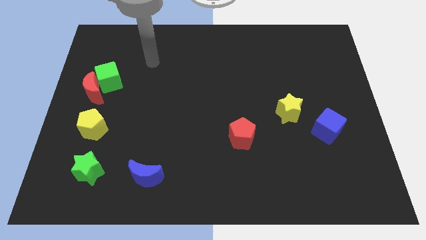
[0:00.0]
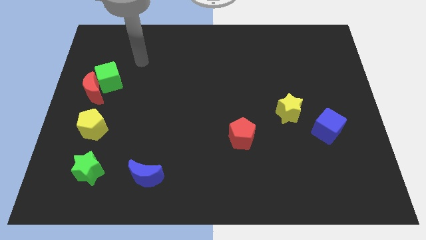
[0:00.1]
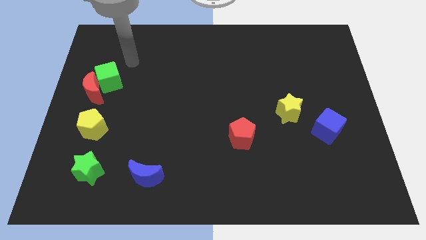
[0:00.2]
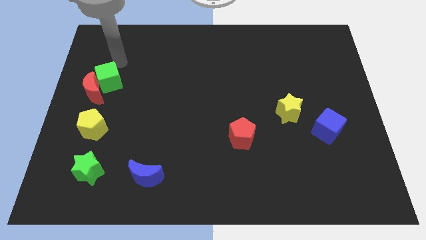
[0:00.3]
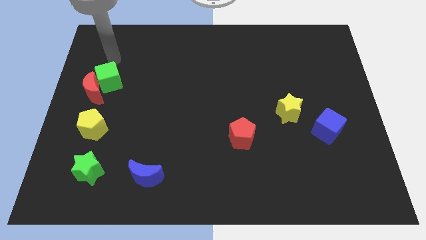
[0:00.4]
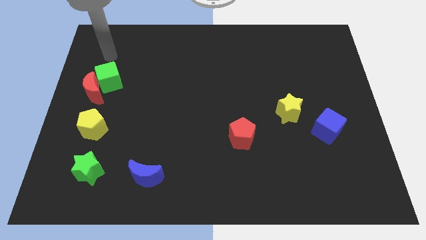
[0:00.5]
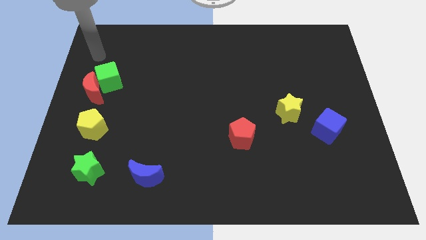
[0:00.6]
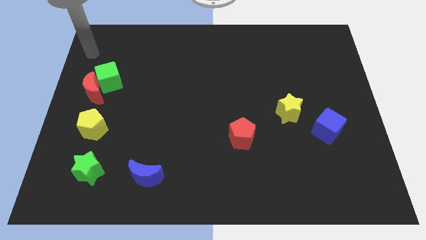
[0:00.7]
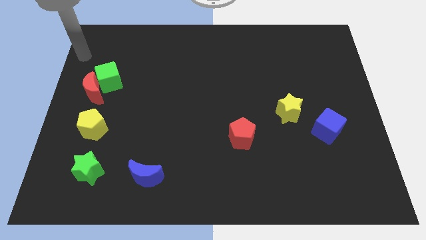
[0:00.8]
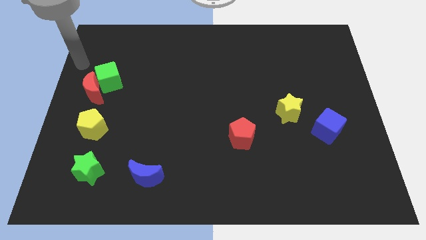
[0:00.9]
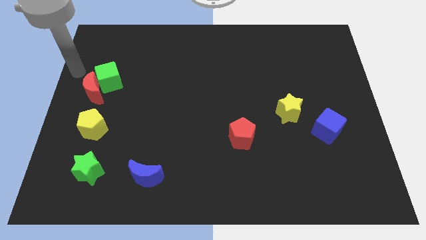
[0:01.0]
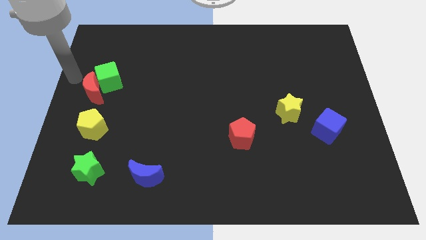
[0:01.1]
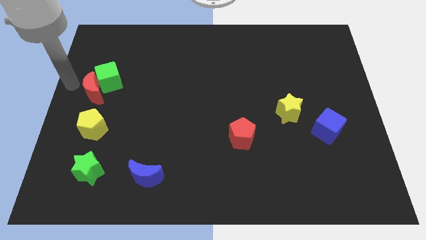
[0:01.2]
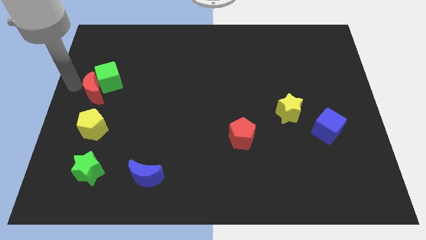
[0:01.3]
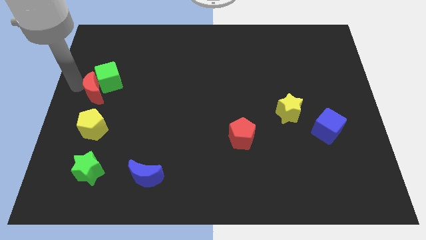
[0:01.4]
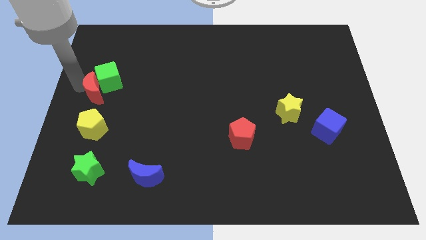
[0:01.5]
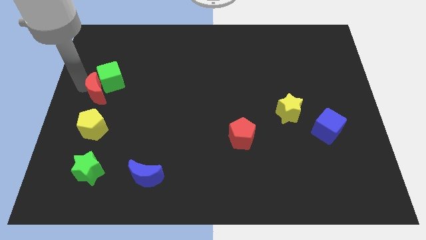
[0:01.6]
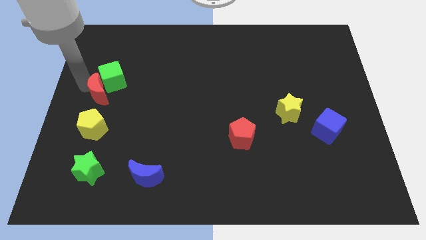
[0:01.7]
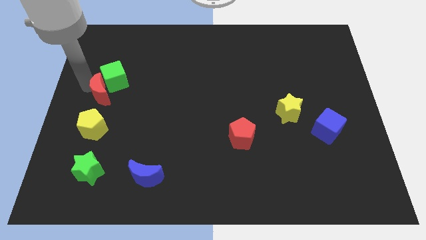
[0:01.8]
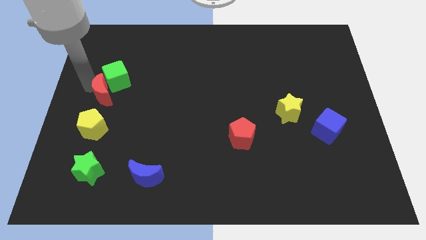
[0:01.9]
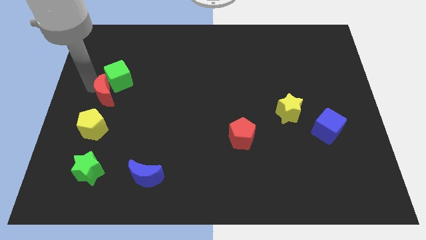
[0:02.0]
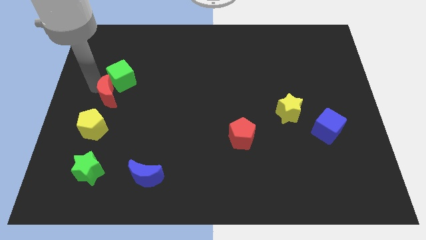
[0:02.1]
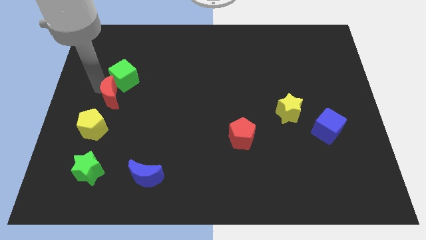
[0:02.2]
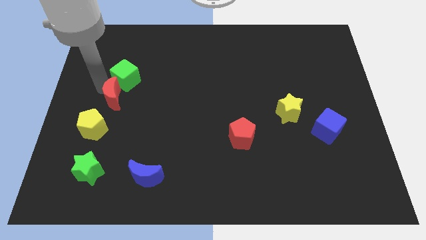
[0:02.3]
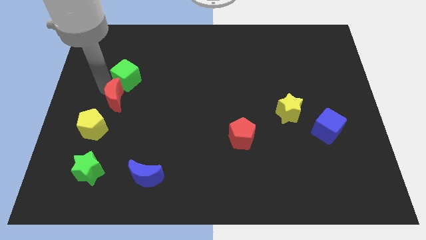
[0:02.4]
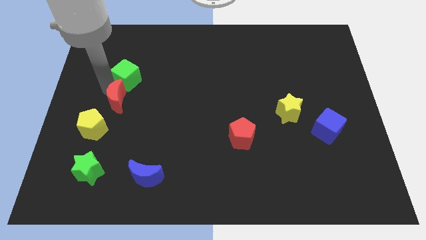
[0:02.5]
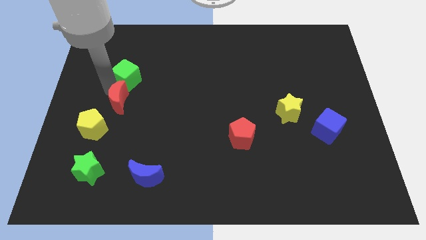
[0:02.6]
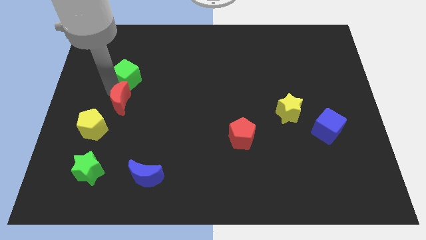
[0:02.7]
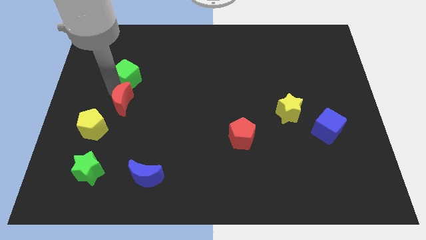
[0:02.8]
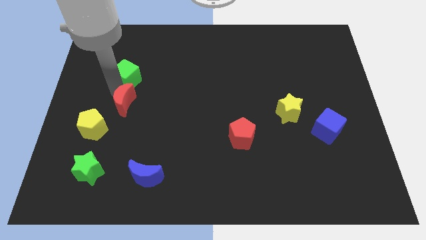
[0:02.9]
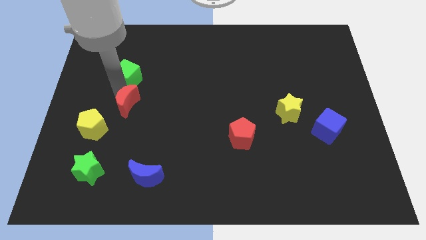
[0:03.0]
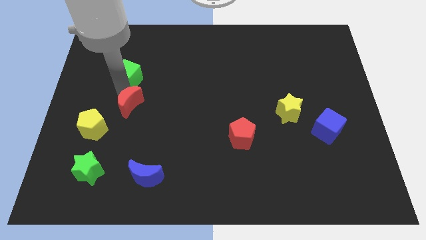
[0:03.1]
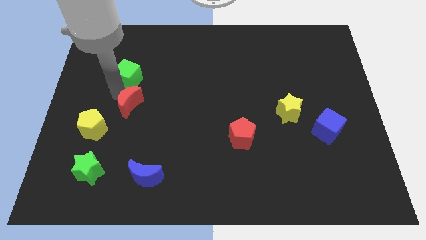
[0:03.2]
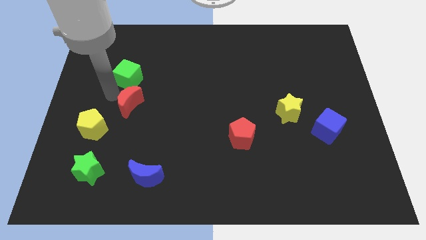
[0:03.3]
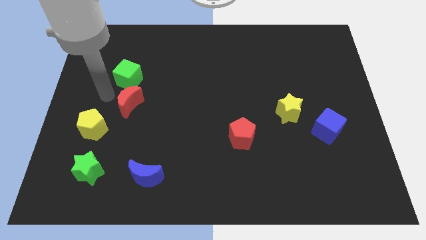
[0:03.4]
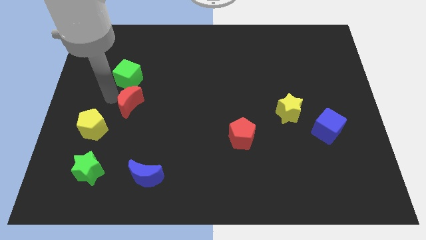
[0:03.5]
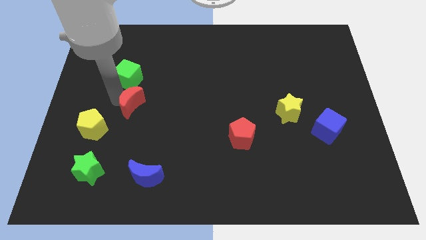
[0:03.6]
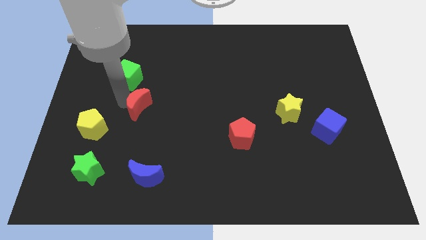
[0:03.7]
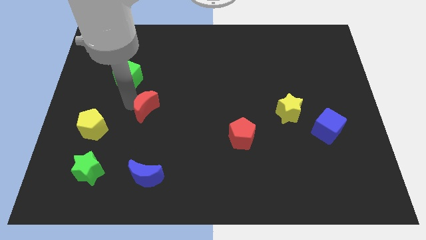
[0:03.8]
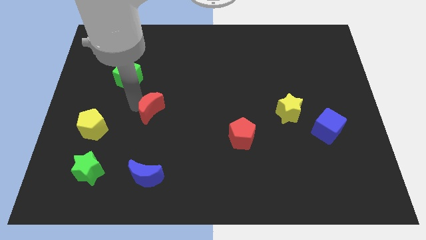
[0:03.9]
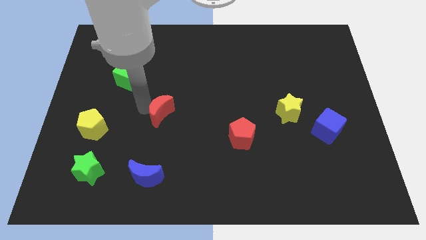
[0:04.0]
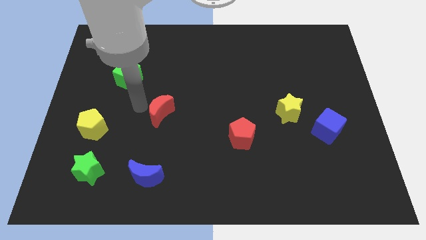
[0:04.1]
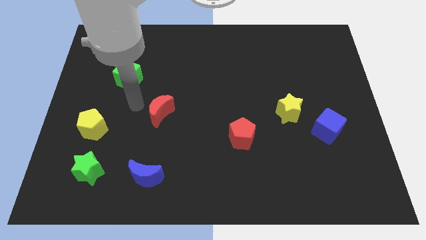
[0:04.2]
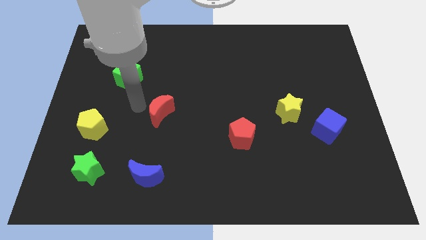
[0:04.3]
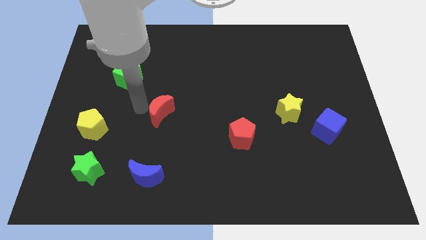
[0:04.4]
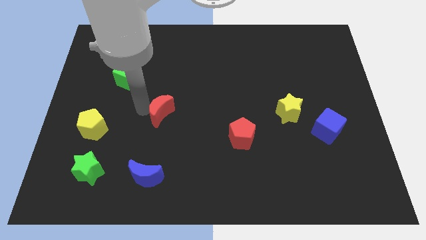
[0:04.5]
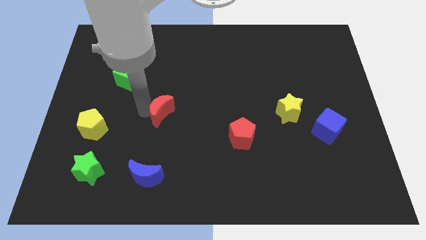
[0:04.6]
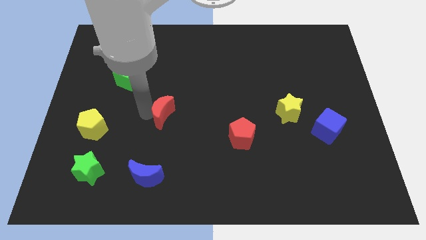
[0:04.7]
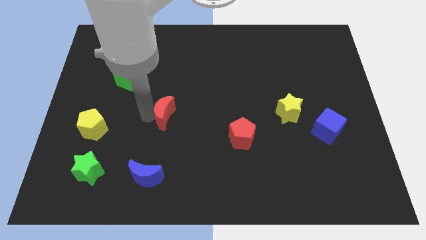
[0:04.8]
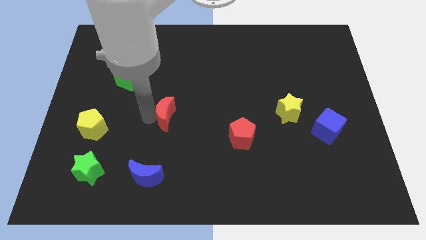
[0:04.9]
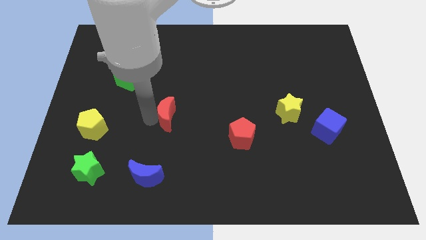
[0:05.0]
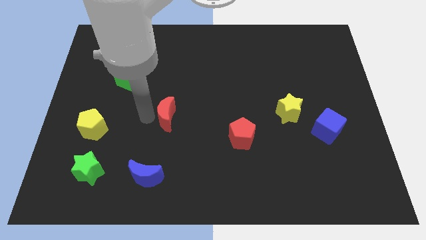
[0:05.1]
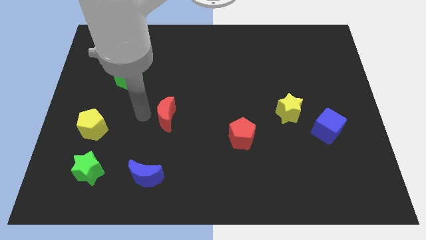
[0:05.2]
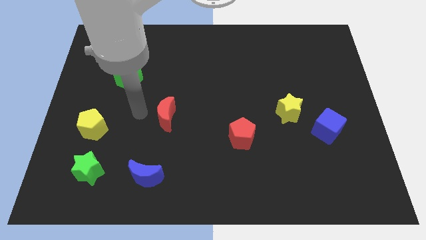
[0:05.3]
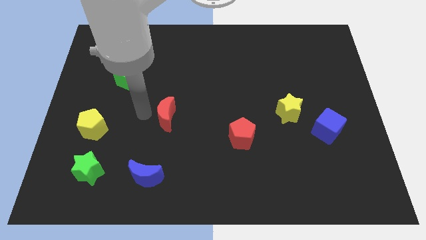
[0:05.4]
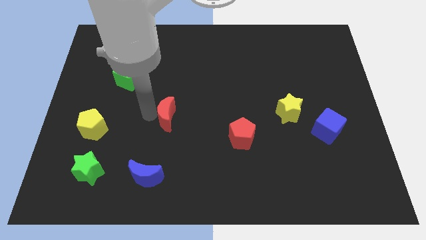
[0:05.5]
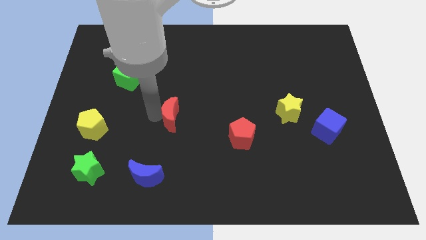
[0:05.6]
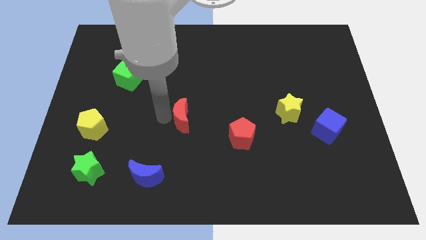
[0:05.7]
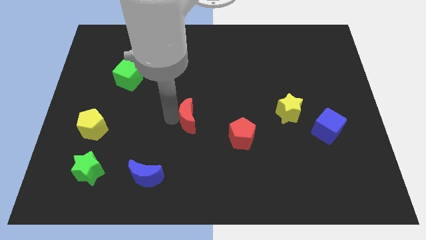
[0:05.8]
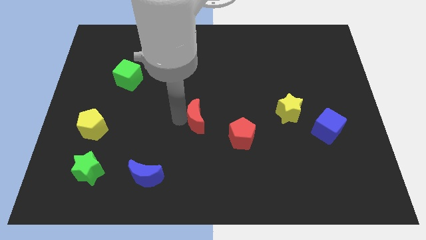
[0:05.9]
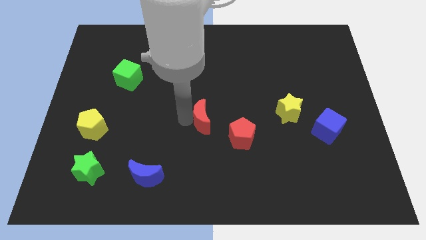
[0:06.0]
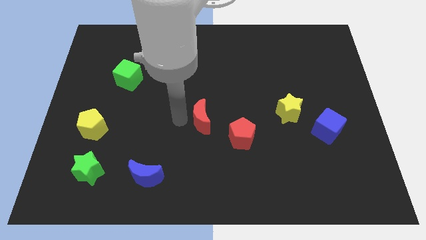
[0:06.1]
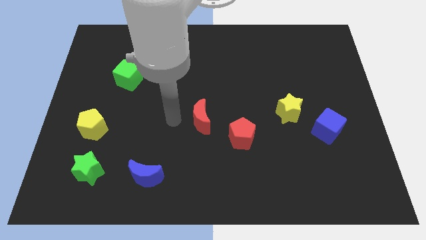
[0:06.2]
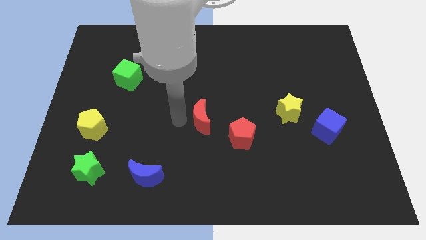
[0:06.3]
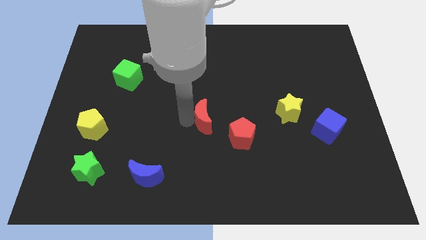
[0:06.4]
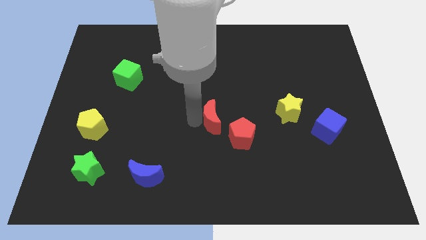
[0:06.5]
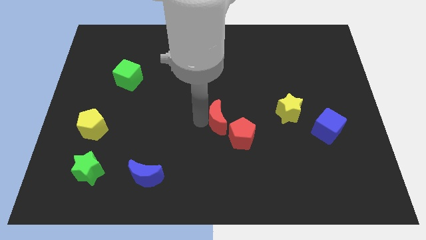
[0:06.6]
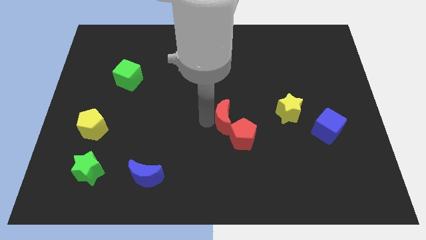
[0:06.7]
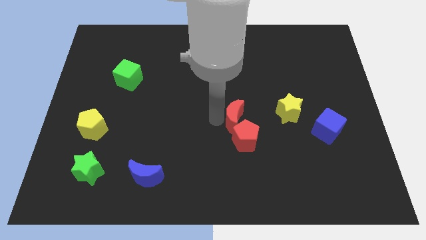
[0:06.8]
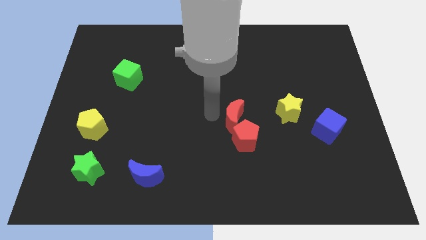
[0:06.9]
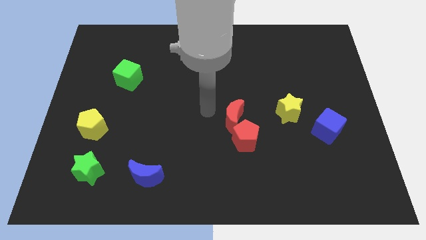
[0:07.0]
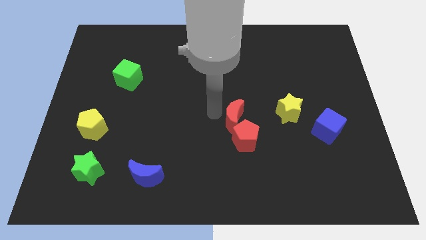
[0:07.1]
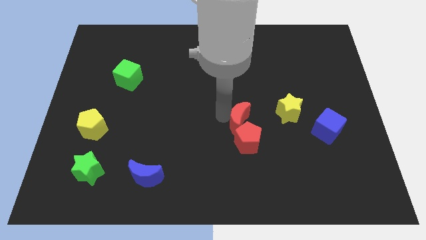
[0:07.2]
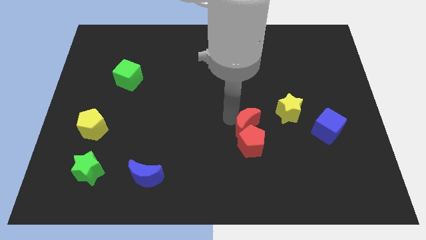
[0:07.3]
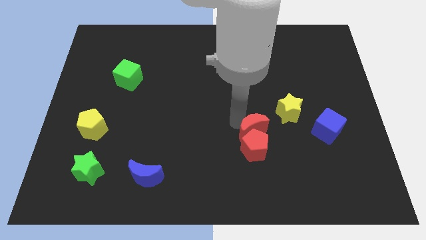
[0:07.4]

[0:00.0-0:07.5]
put the red moon diagonally down and to the left of the yellow star

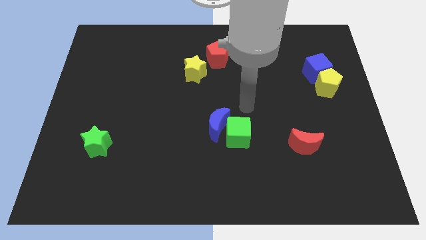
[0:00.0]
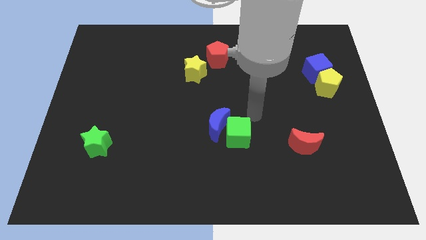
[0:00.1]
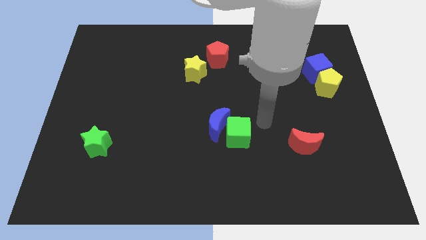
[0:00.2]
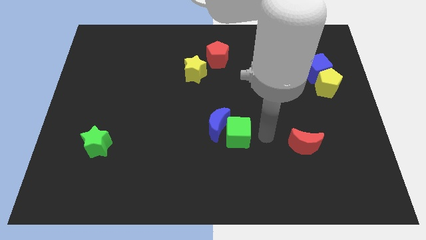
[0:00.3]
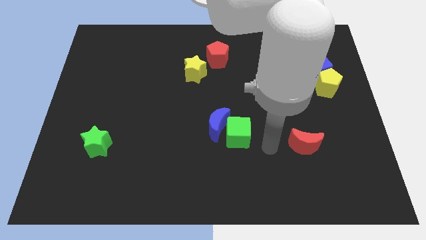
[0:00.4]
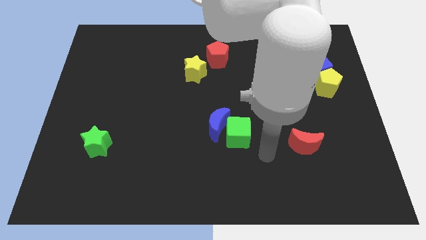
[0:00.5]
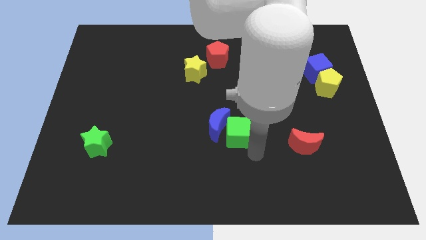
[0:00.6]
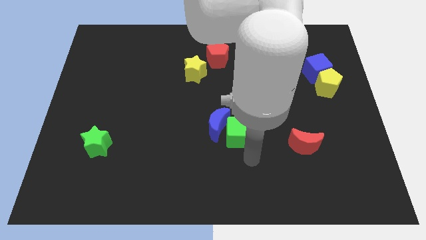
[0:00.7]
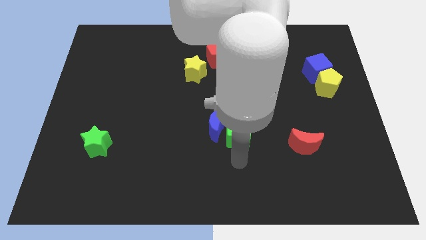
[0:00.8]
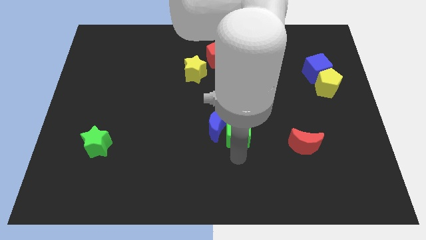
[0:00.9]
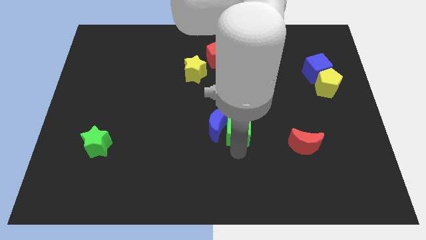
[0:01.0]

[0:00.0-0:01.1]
slide the green cube diagonally up and to the right of the blue moon
